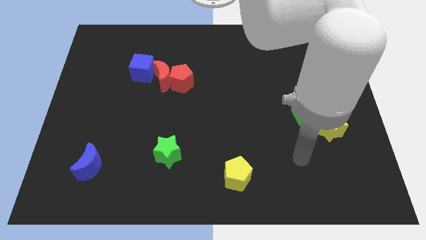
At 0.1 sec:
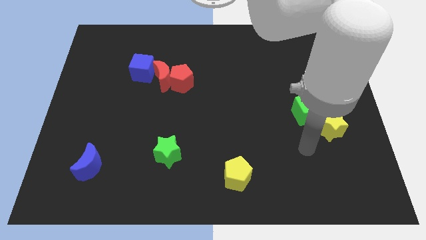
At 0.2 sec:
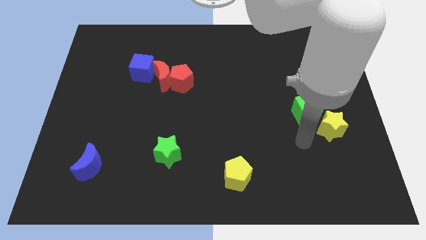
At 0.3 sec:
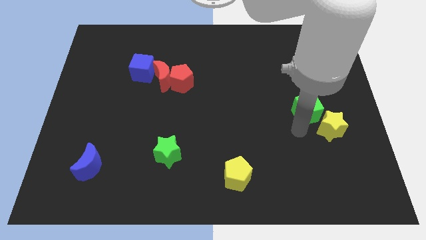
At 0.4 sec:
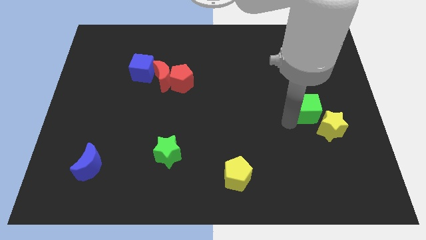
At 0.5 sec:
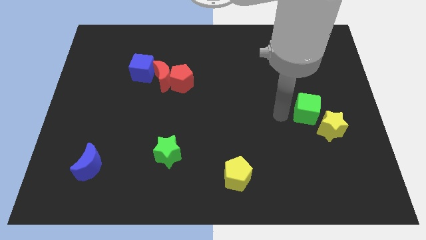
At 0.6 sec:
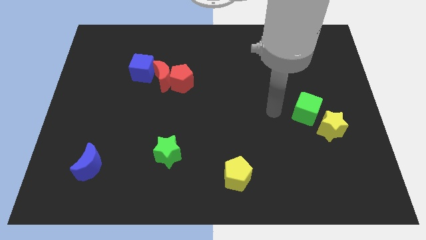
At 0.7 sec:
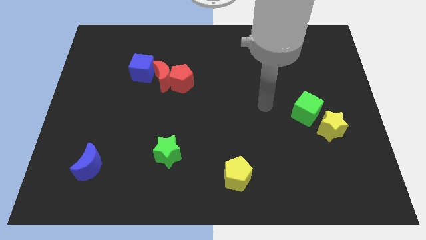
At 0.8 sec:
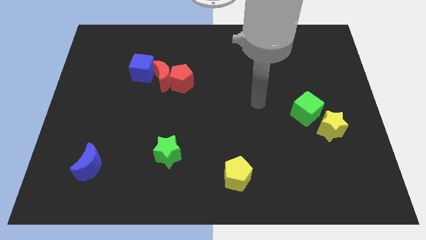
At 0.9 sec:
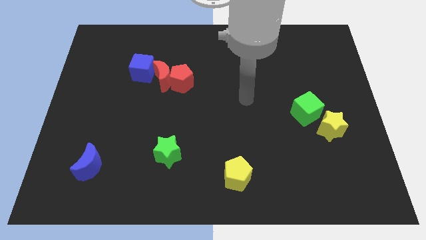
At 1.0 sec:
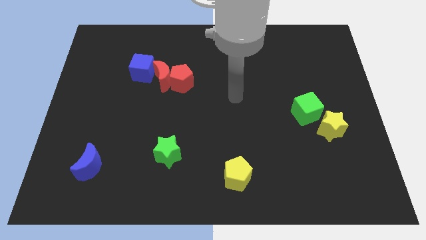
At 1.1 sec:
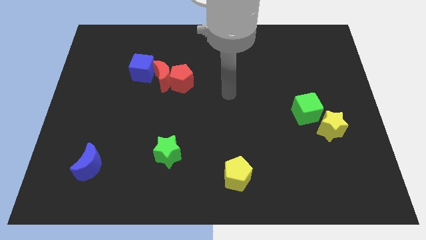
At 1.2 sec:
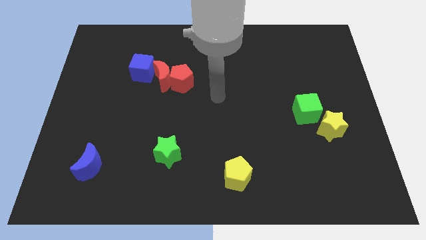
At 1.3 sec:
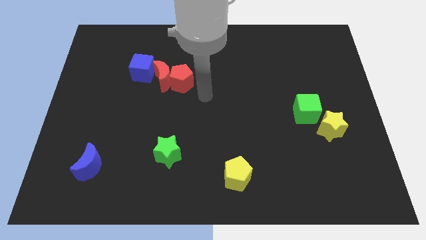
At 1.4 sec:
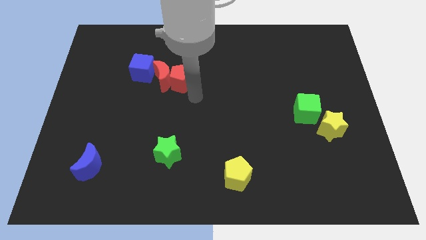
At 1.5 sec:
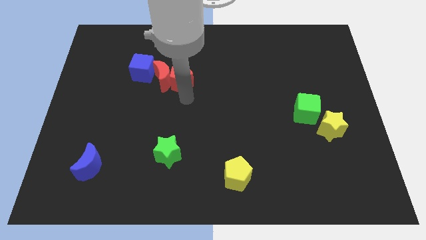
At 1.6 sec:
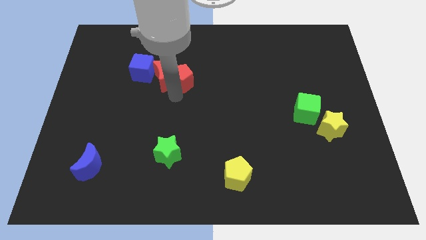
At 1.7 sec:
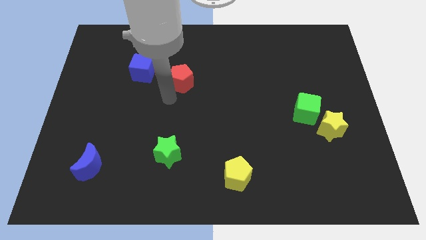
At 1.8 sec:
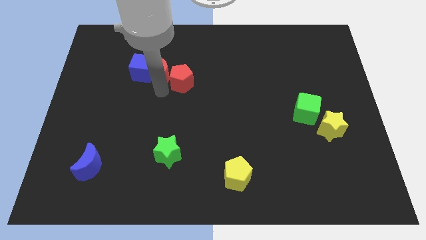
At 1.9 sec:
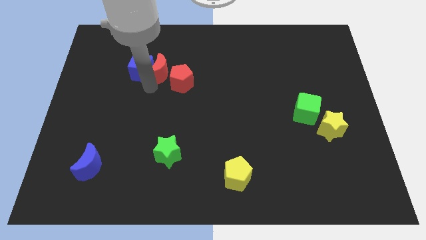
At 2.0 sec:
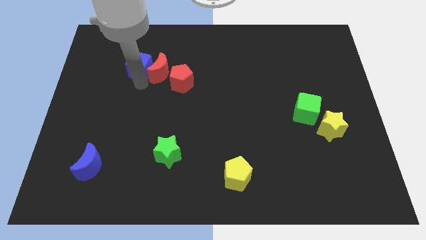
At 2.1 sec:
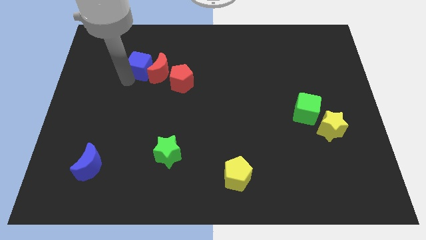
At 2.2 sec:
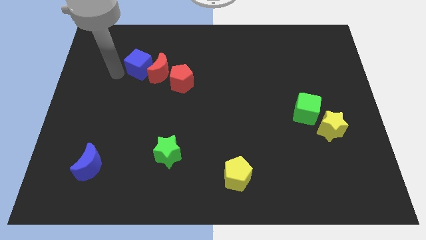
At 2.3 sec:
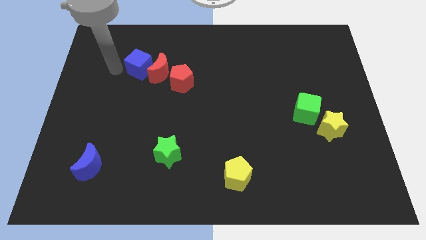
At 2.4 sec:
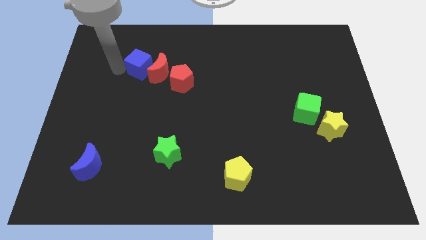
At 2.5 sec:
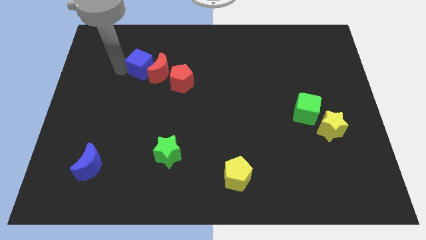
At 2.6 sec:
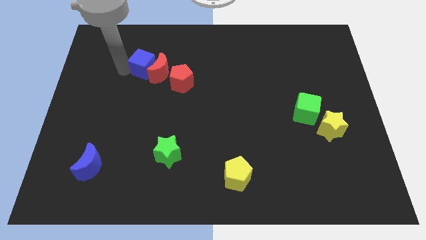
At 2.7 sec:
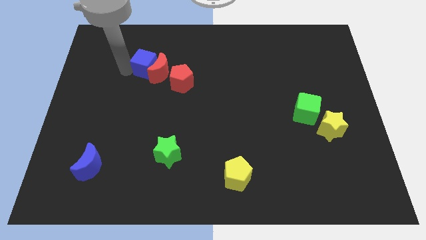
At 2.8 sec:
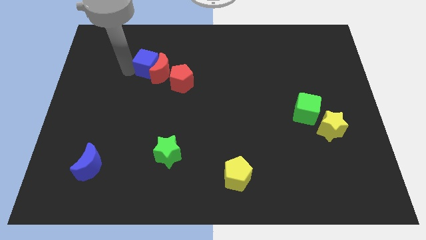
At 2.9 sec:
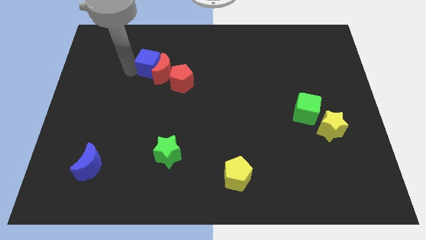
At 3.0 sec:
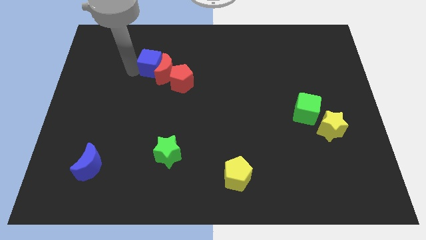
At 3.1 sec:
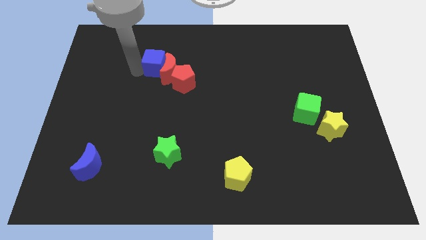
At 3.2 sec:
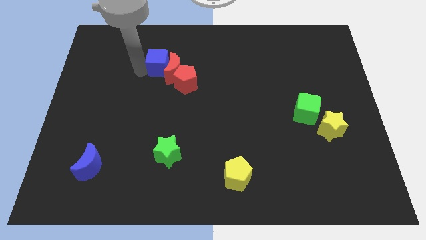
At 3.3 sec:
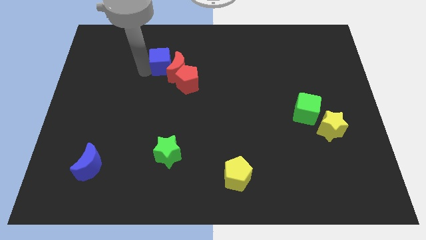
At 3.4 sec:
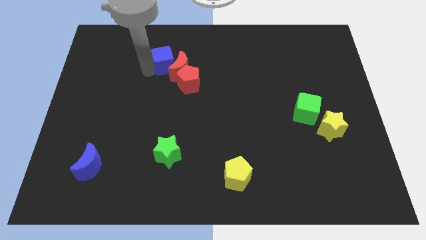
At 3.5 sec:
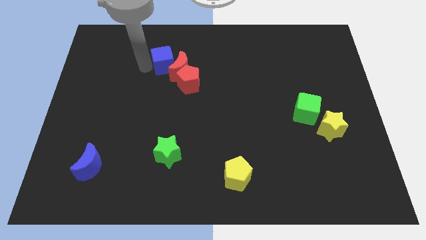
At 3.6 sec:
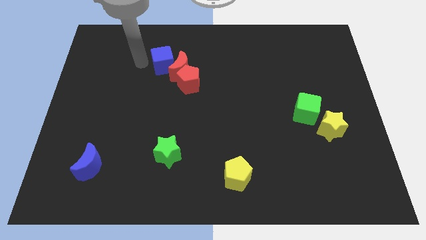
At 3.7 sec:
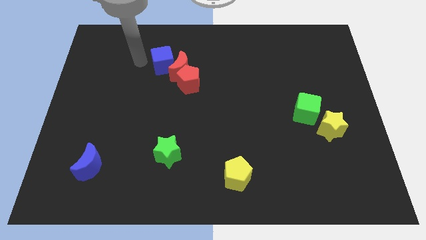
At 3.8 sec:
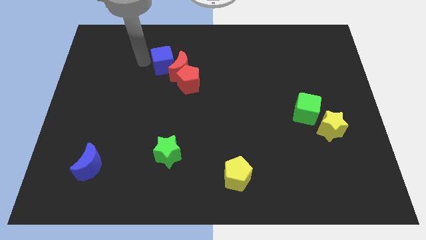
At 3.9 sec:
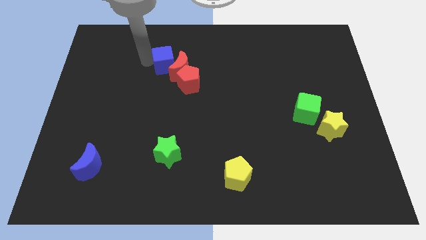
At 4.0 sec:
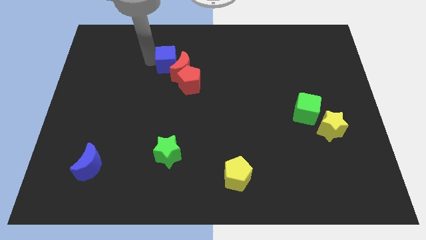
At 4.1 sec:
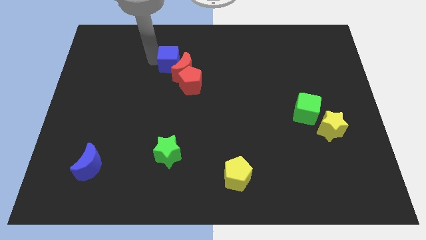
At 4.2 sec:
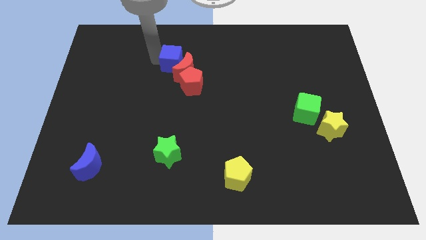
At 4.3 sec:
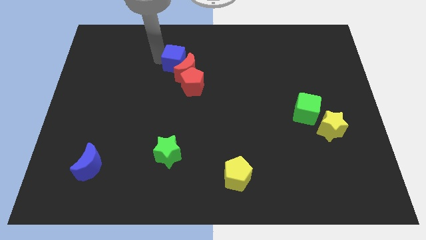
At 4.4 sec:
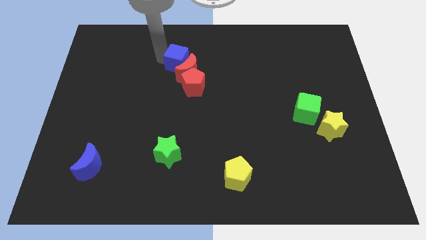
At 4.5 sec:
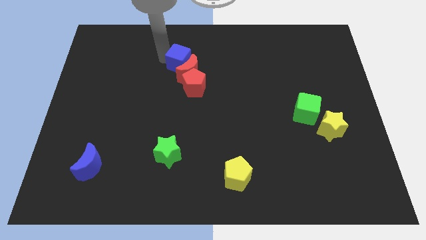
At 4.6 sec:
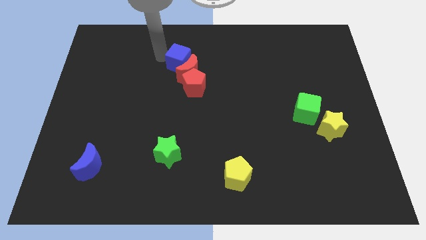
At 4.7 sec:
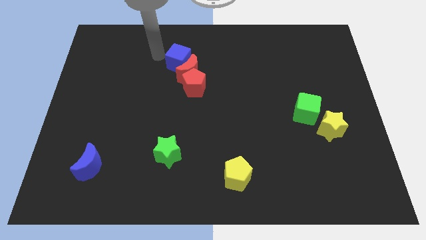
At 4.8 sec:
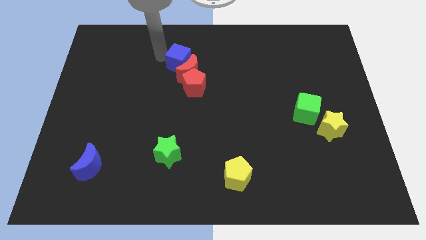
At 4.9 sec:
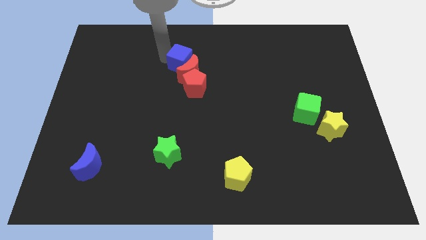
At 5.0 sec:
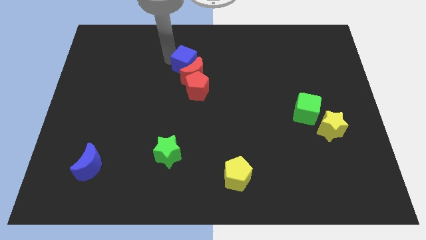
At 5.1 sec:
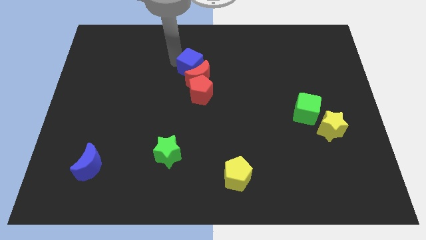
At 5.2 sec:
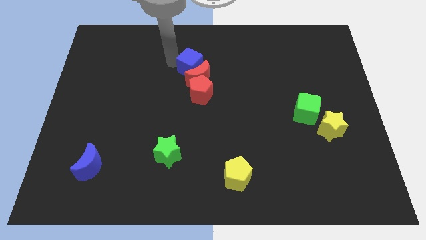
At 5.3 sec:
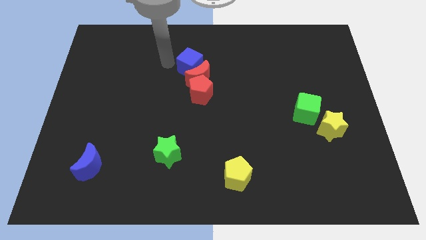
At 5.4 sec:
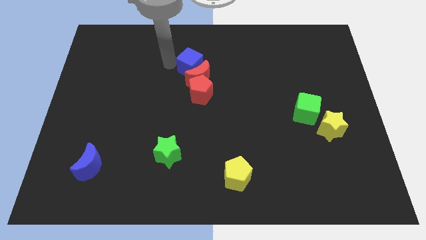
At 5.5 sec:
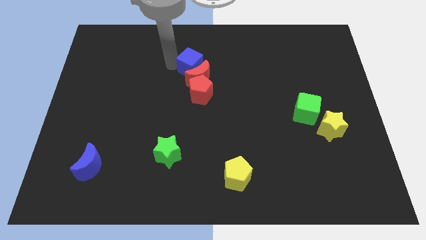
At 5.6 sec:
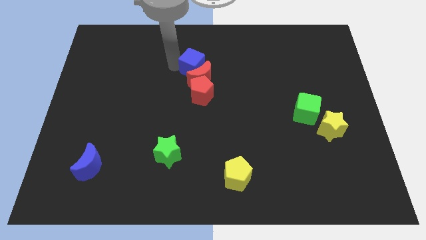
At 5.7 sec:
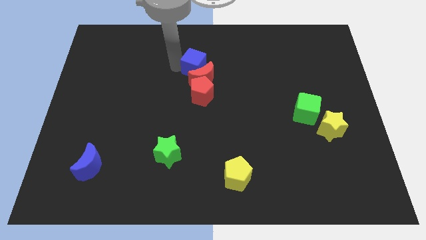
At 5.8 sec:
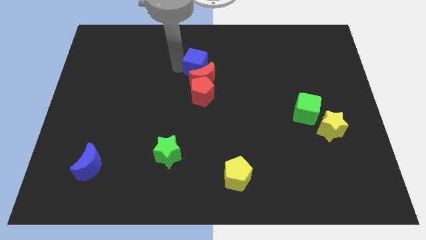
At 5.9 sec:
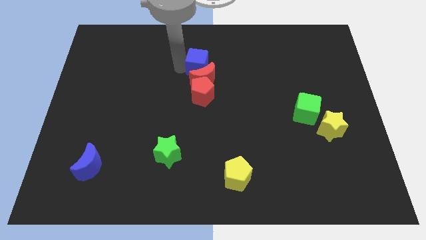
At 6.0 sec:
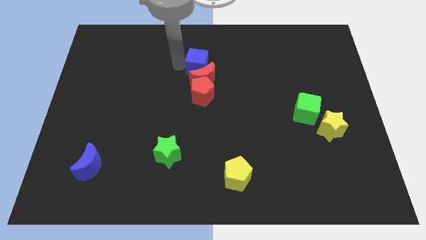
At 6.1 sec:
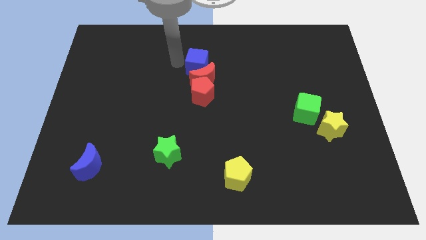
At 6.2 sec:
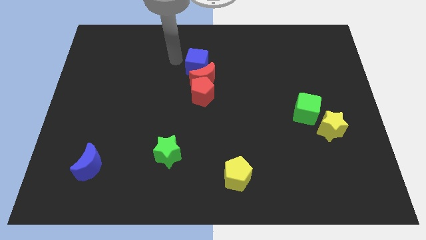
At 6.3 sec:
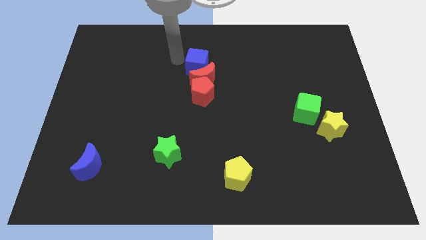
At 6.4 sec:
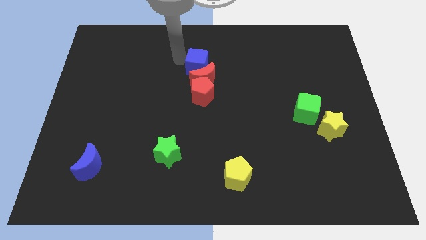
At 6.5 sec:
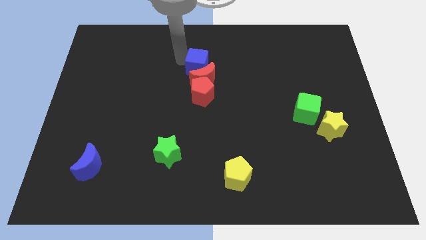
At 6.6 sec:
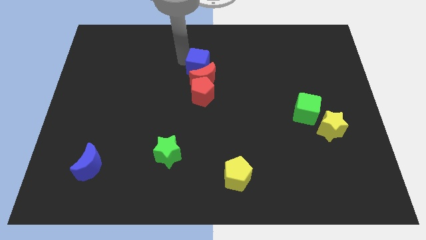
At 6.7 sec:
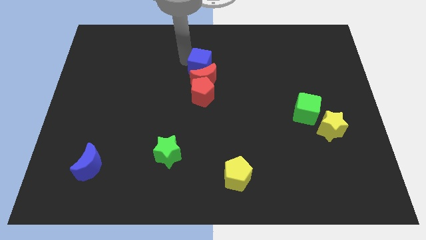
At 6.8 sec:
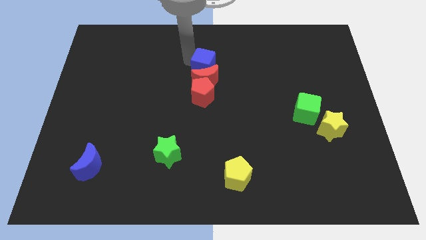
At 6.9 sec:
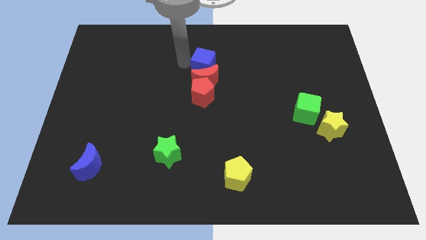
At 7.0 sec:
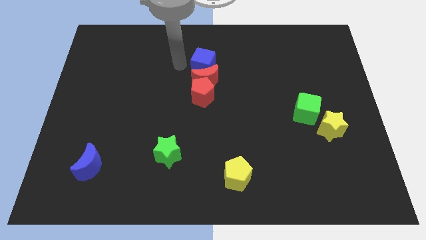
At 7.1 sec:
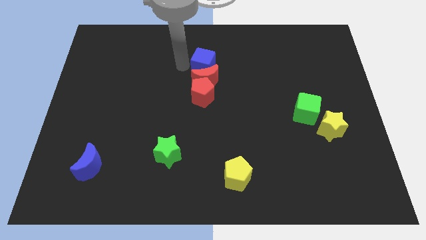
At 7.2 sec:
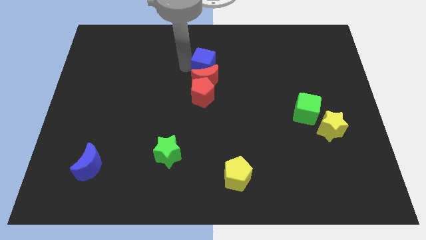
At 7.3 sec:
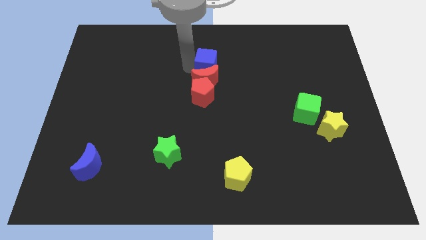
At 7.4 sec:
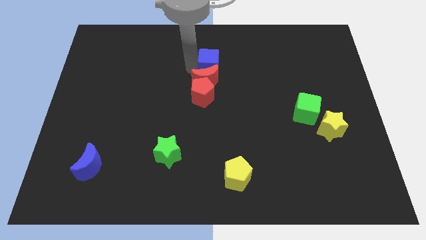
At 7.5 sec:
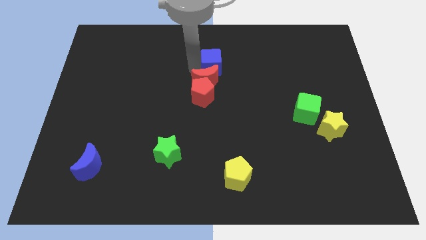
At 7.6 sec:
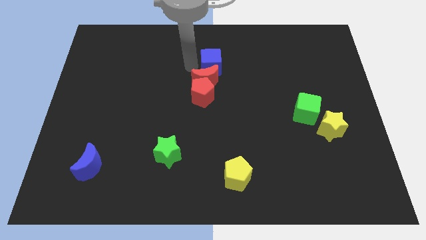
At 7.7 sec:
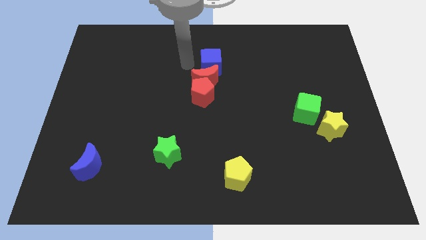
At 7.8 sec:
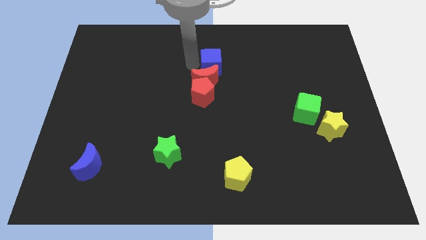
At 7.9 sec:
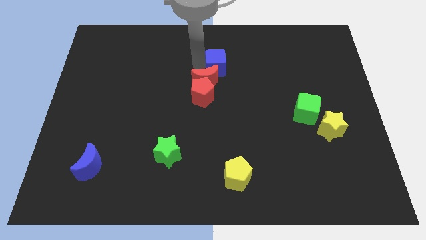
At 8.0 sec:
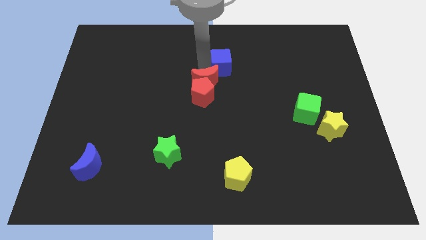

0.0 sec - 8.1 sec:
push the blue cube right
